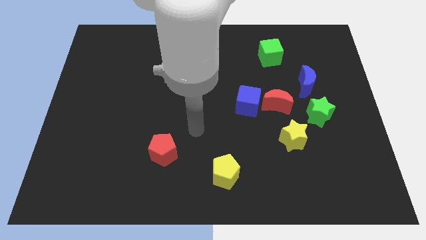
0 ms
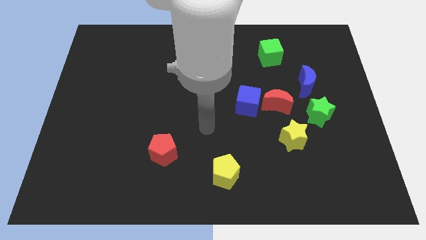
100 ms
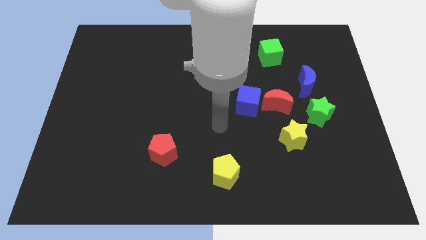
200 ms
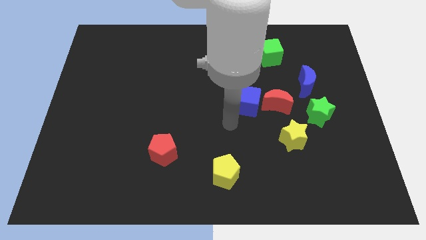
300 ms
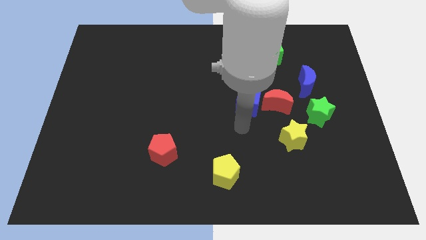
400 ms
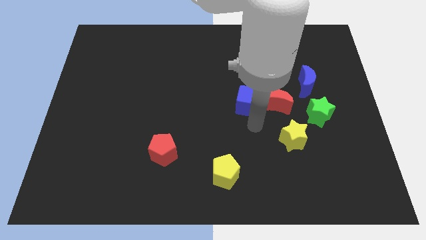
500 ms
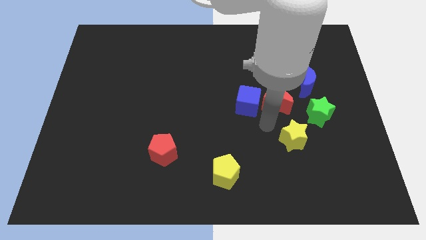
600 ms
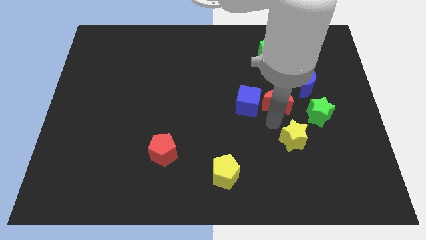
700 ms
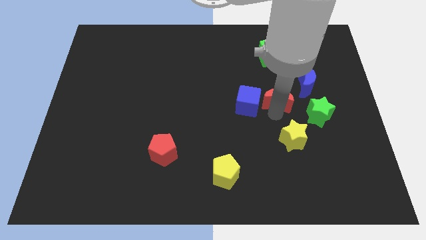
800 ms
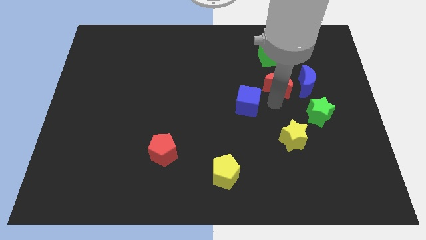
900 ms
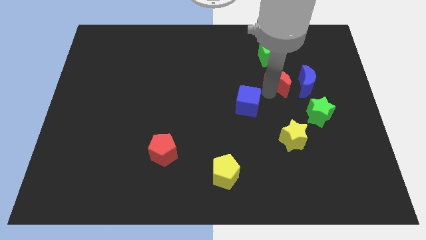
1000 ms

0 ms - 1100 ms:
separate the blue cube from the red moon

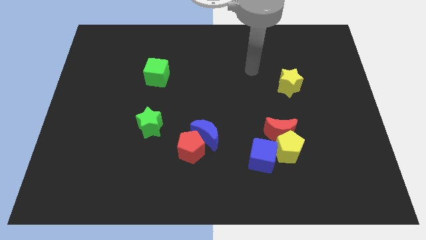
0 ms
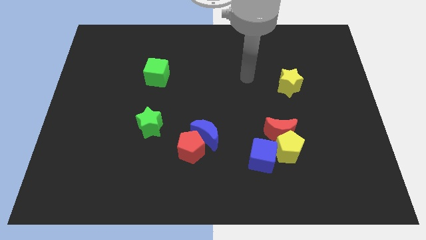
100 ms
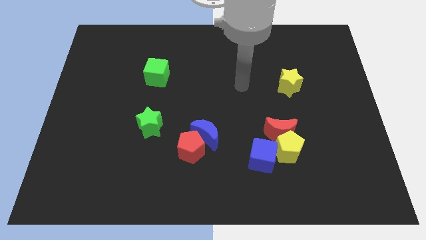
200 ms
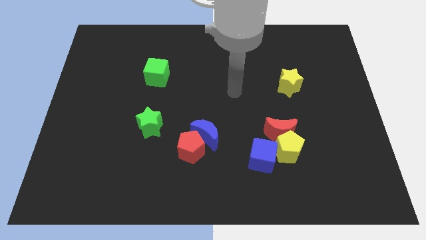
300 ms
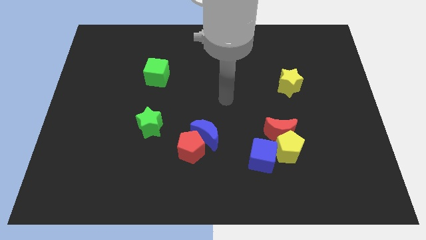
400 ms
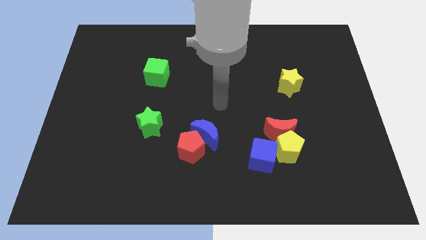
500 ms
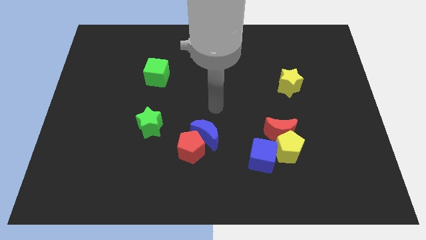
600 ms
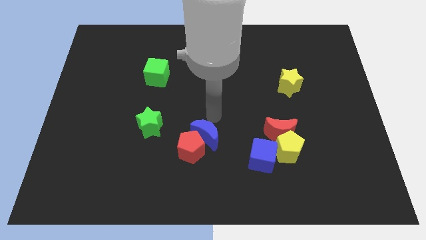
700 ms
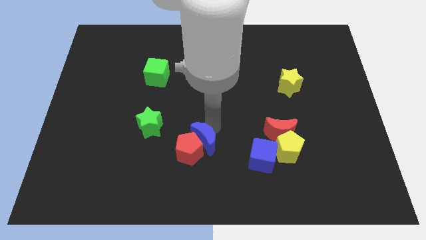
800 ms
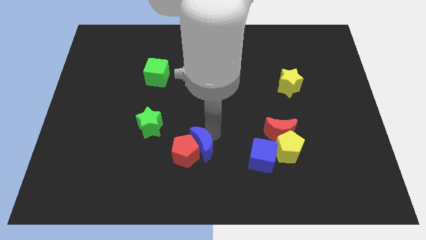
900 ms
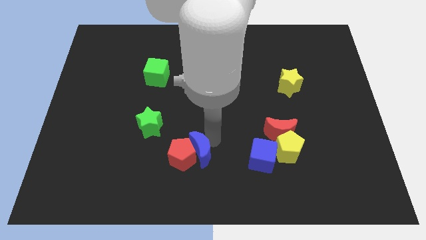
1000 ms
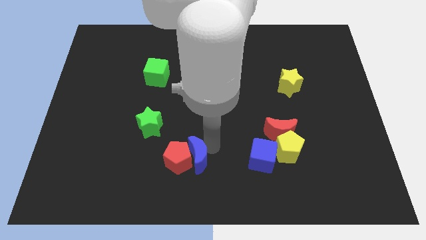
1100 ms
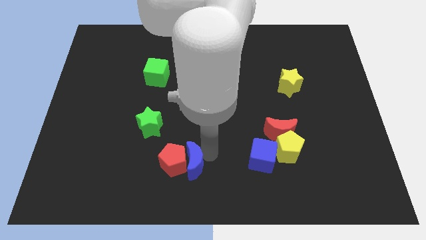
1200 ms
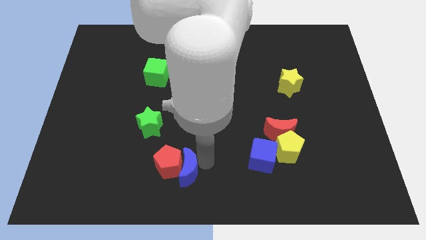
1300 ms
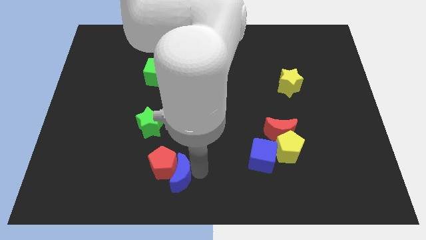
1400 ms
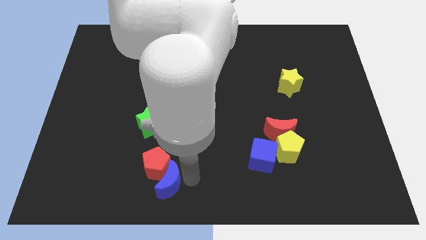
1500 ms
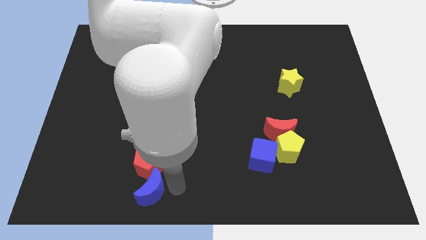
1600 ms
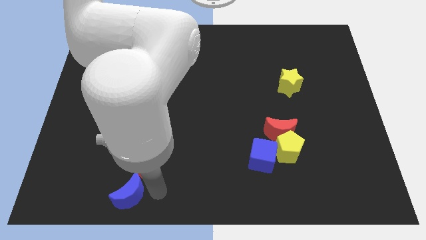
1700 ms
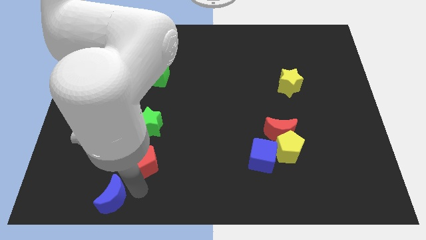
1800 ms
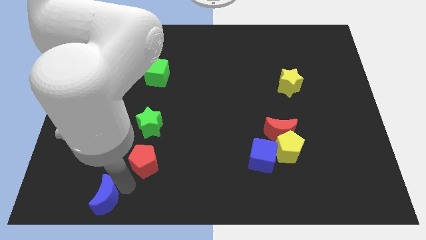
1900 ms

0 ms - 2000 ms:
move the red pentagon away from the blue moon

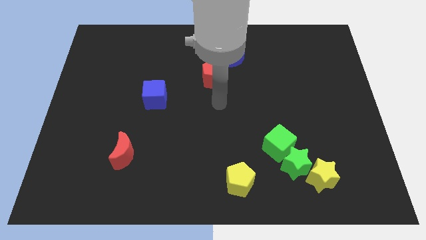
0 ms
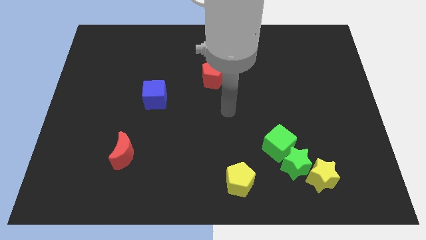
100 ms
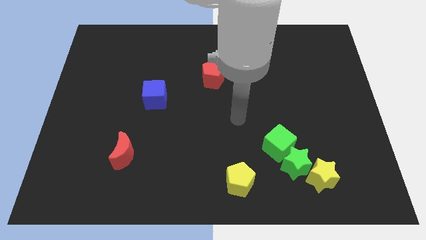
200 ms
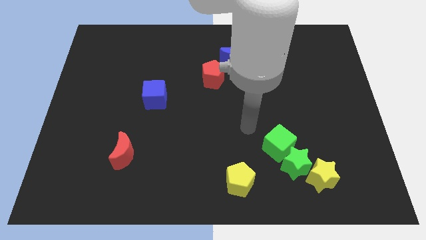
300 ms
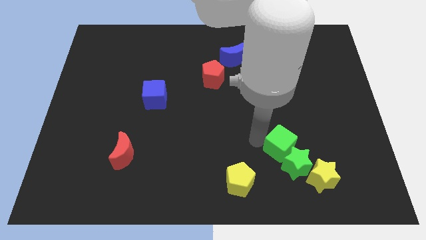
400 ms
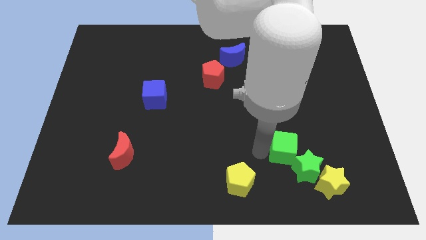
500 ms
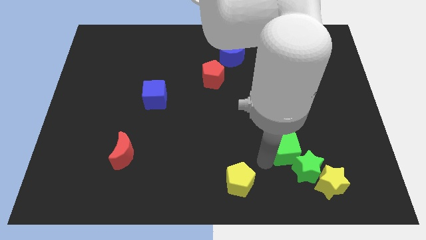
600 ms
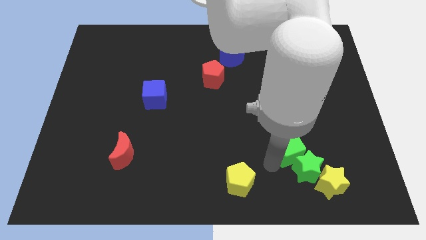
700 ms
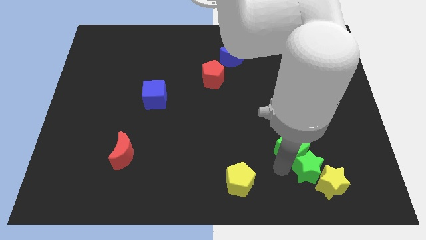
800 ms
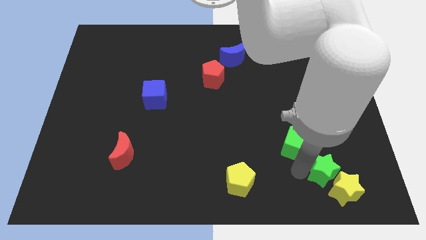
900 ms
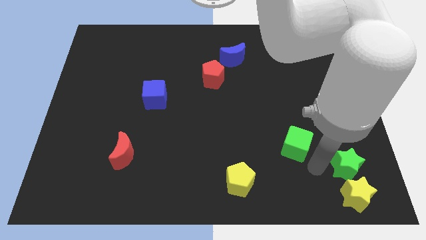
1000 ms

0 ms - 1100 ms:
move the green cube away from the green star

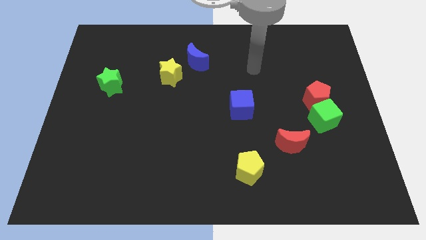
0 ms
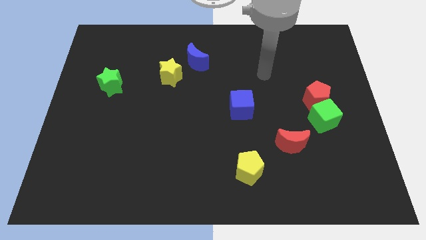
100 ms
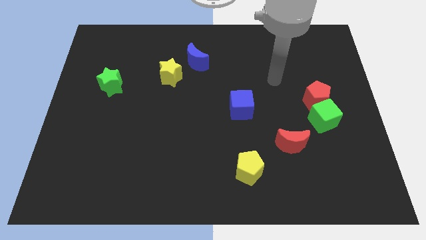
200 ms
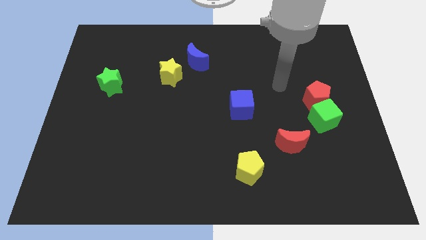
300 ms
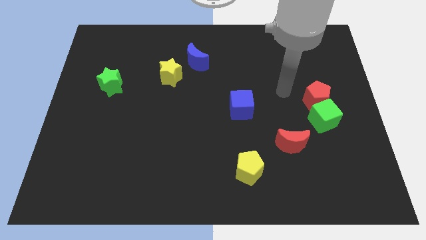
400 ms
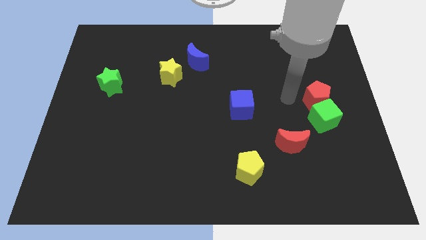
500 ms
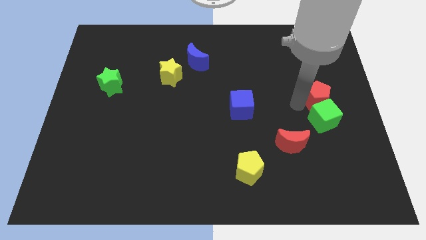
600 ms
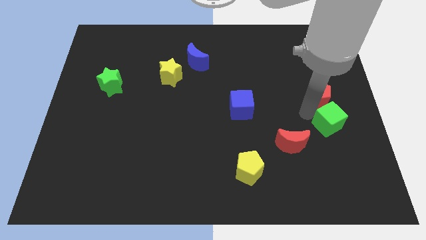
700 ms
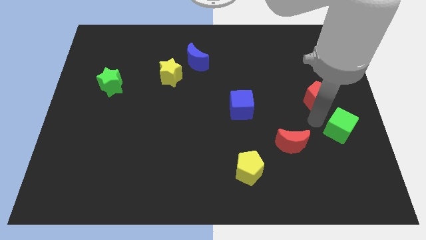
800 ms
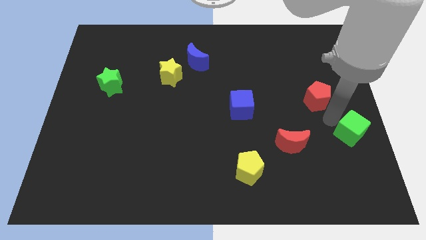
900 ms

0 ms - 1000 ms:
move the red pentagon away from the green cube

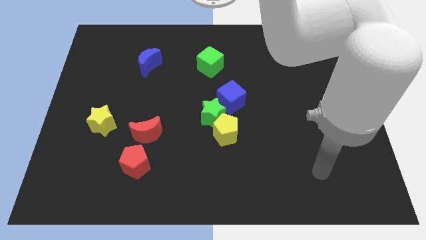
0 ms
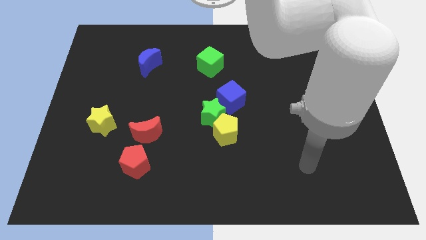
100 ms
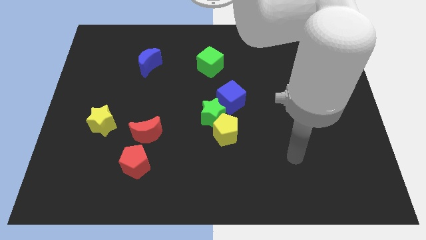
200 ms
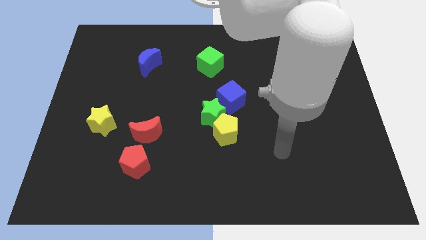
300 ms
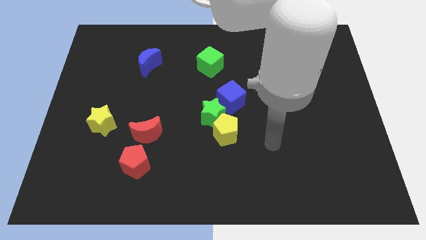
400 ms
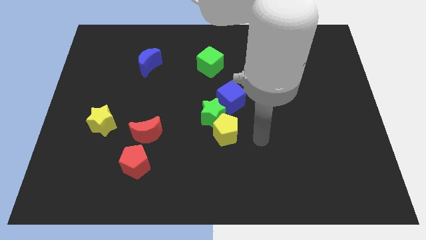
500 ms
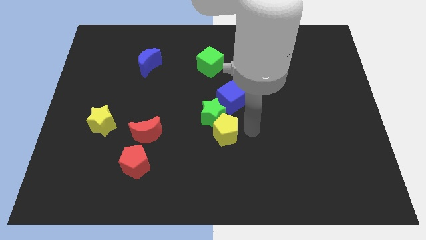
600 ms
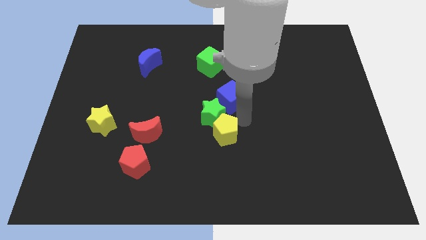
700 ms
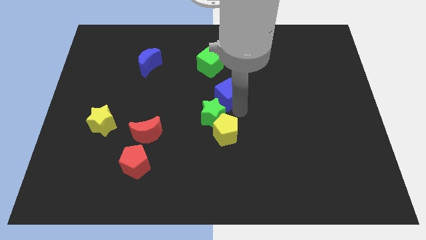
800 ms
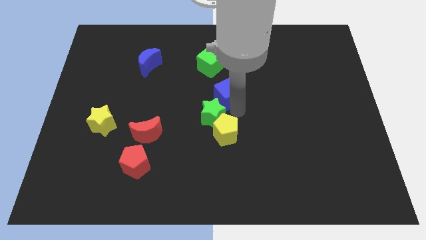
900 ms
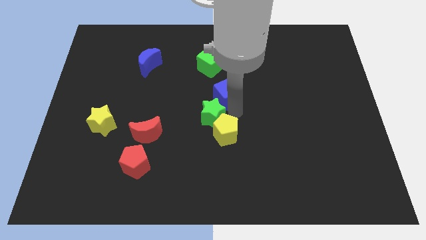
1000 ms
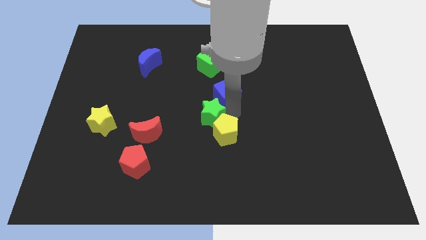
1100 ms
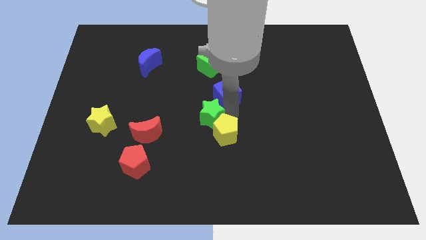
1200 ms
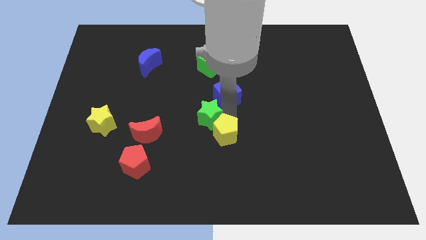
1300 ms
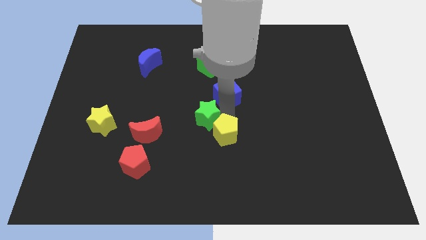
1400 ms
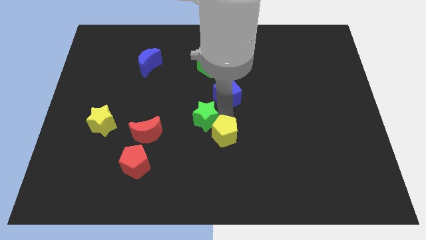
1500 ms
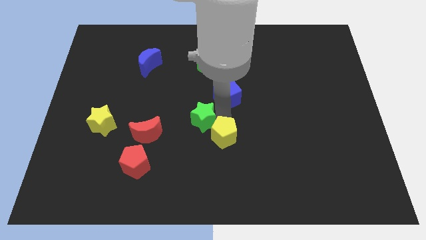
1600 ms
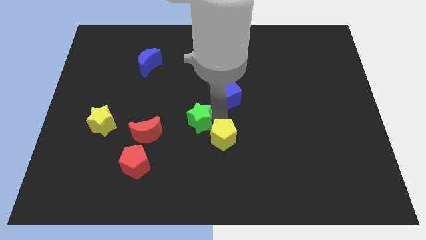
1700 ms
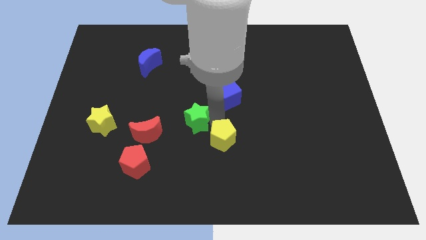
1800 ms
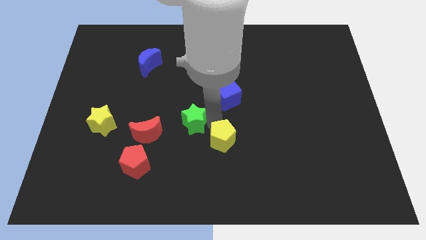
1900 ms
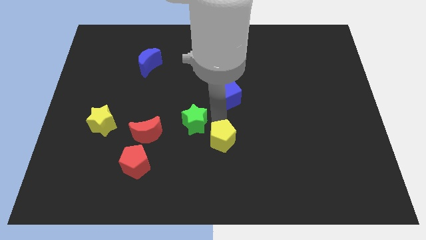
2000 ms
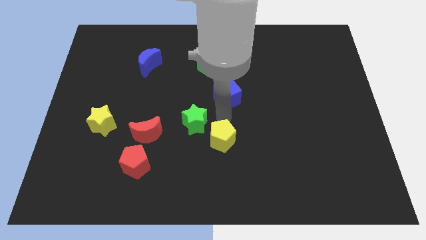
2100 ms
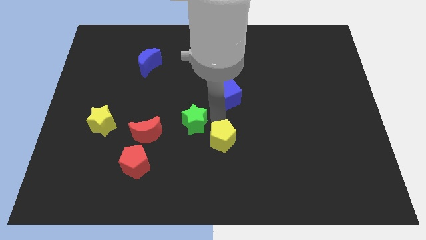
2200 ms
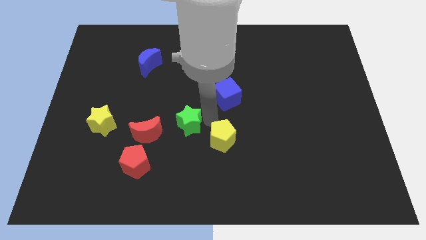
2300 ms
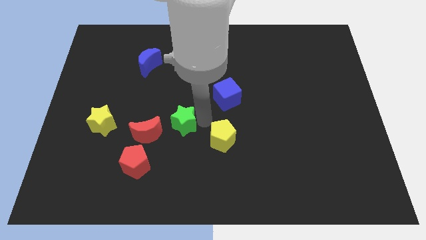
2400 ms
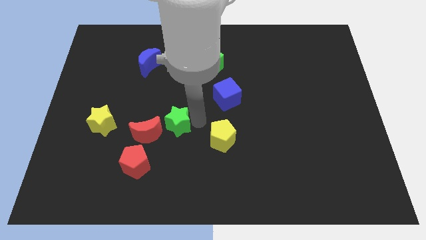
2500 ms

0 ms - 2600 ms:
pull the green star apart from the yellow pentagon and blue cube

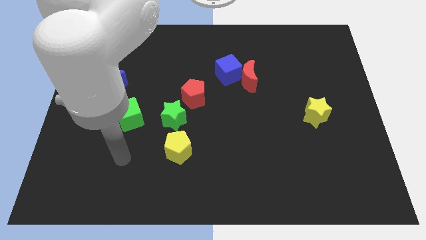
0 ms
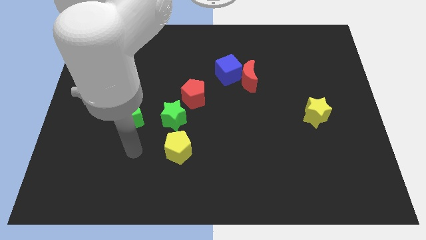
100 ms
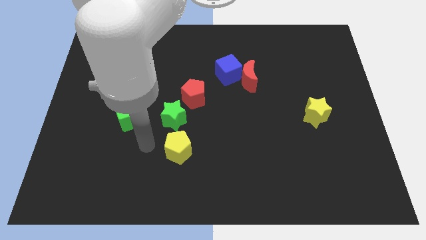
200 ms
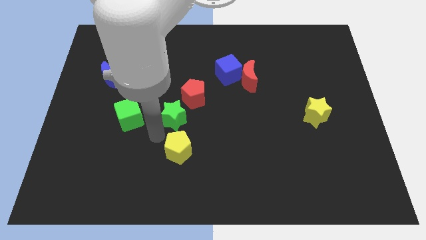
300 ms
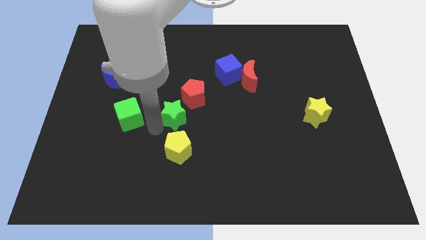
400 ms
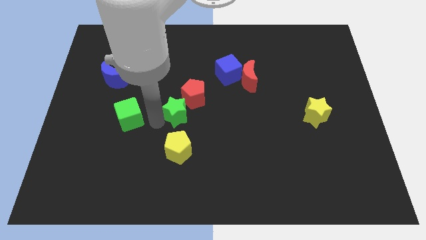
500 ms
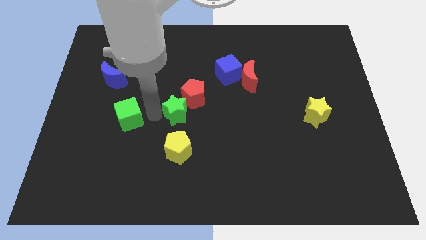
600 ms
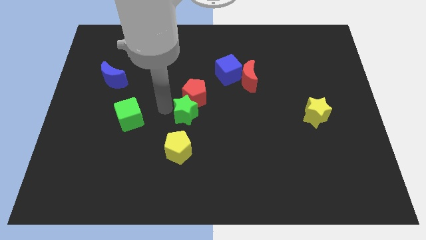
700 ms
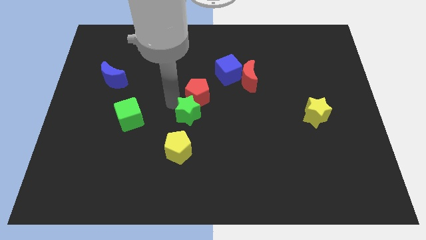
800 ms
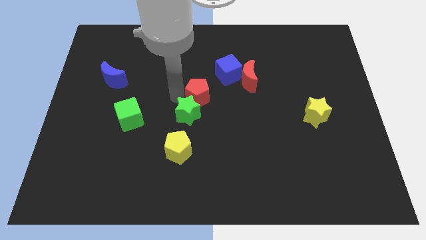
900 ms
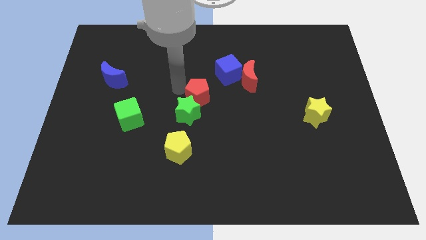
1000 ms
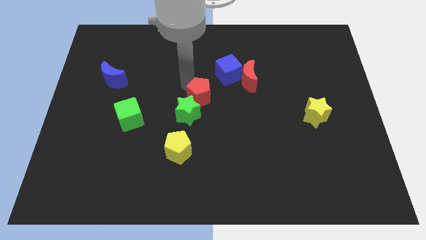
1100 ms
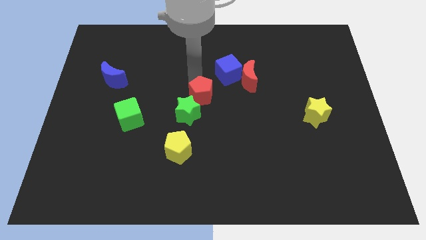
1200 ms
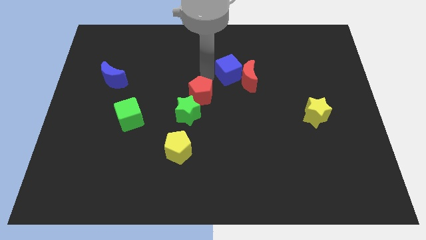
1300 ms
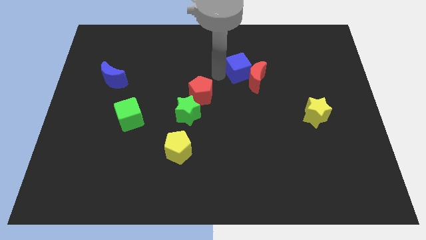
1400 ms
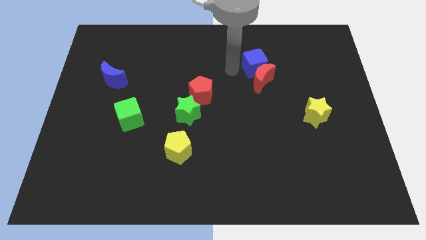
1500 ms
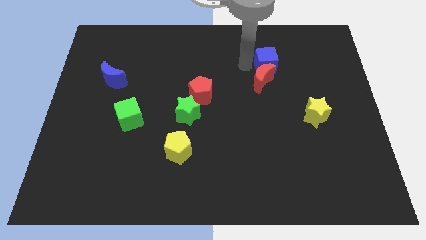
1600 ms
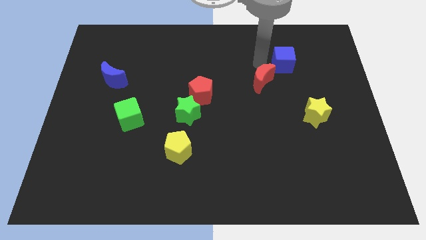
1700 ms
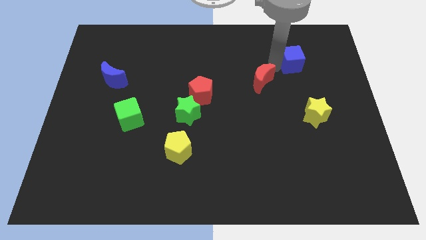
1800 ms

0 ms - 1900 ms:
move the red moon away from the blue cube
